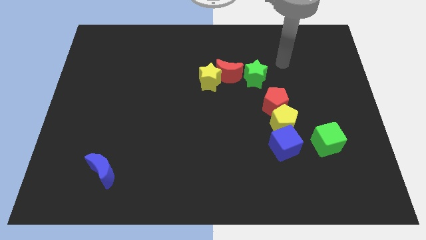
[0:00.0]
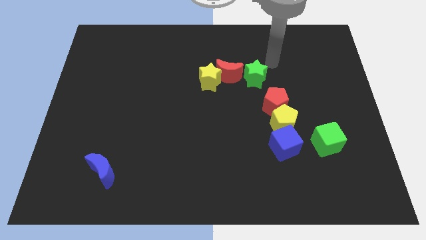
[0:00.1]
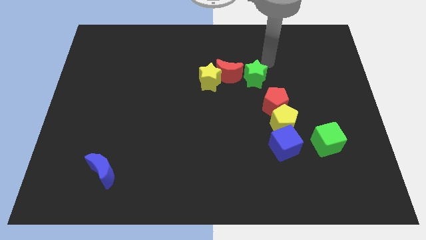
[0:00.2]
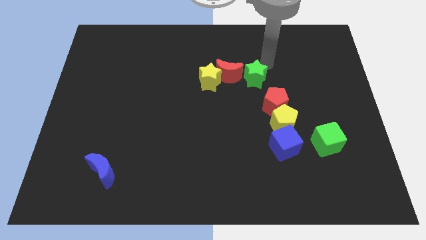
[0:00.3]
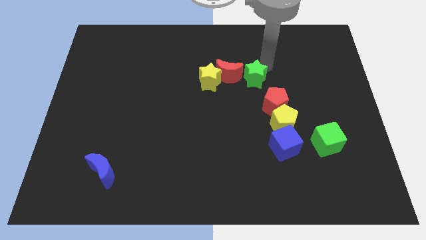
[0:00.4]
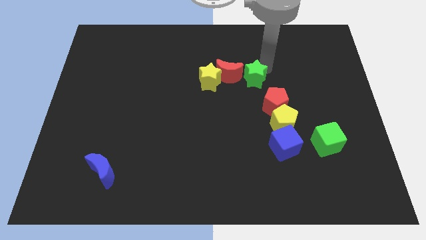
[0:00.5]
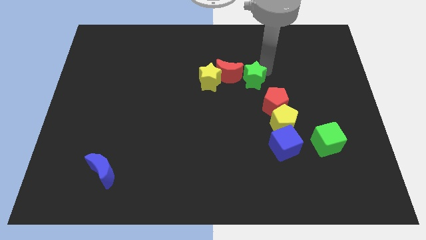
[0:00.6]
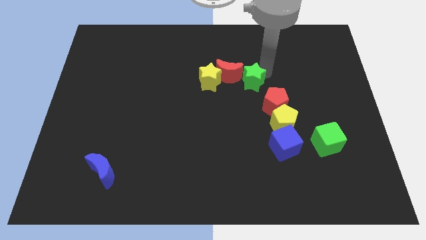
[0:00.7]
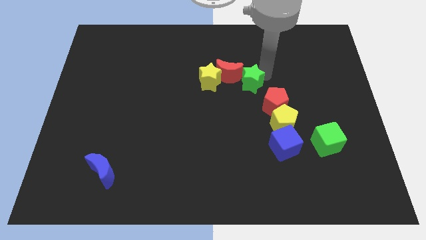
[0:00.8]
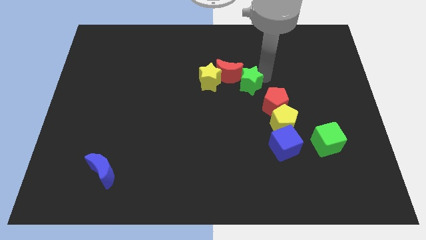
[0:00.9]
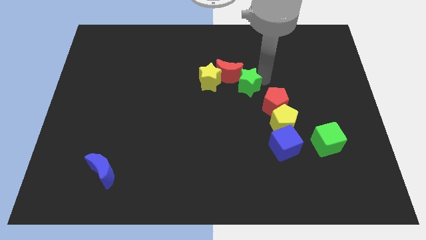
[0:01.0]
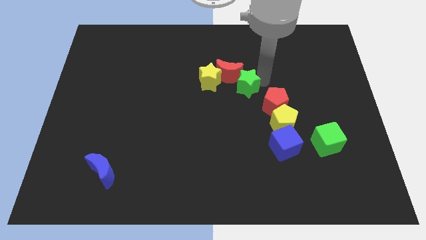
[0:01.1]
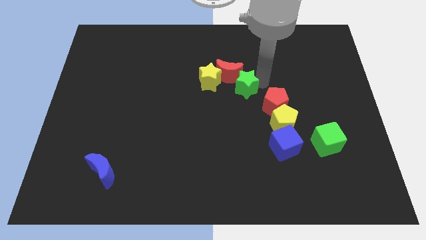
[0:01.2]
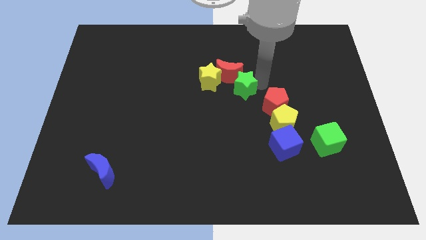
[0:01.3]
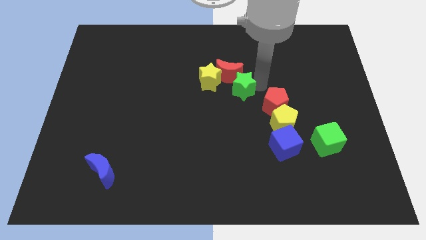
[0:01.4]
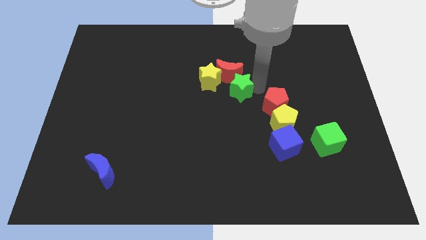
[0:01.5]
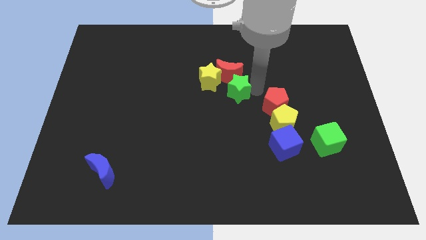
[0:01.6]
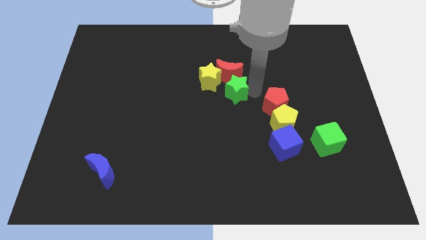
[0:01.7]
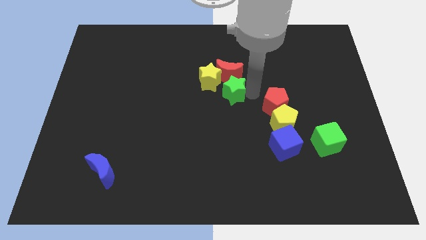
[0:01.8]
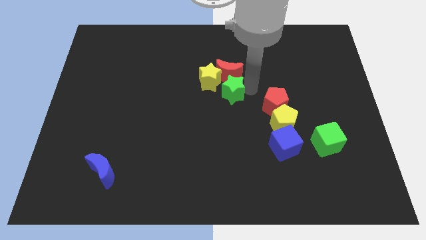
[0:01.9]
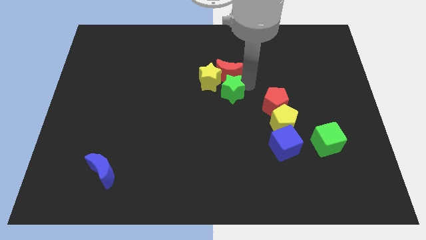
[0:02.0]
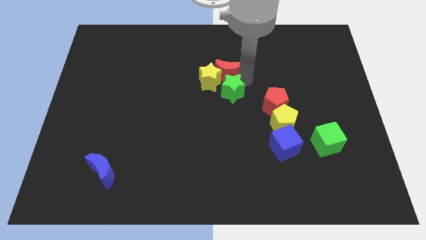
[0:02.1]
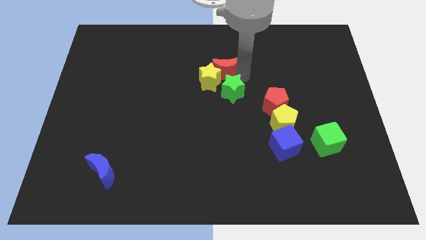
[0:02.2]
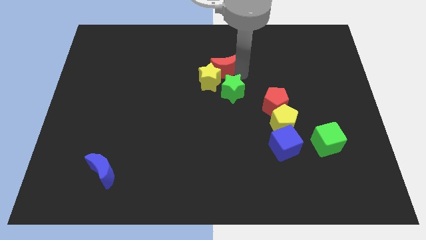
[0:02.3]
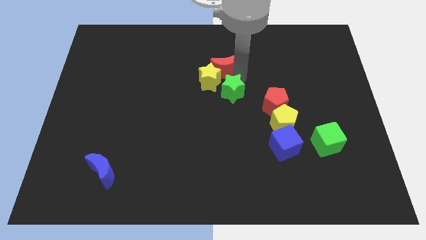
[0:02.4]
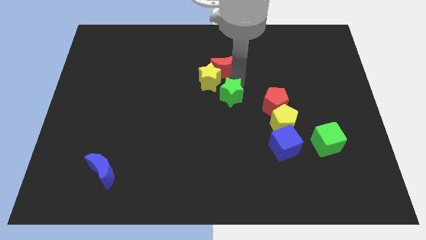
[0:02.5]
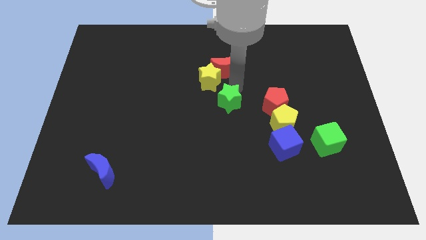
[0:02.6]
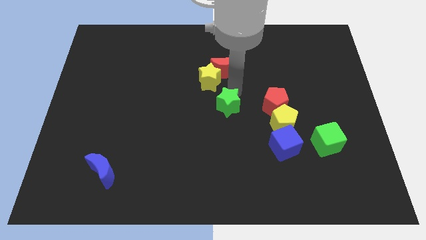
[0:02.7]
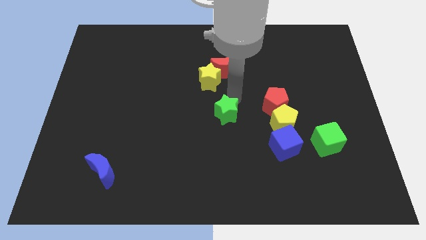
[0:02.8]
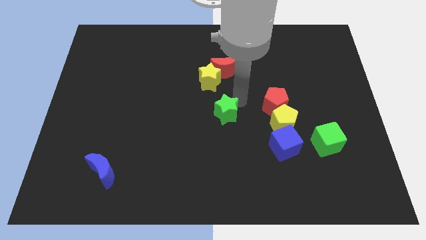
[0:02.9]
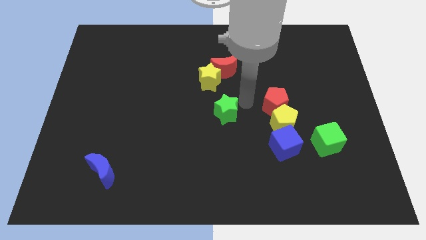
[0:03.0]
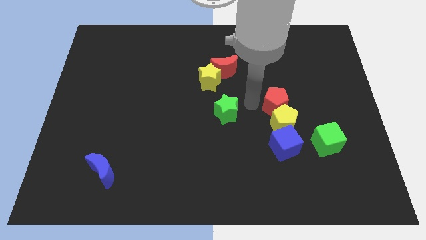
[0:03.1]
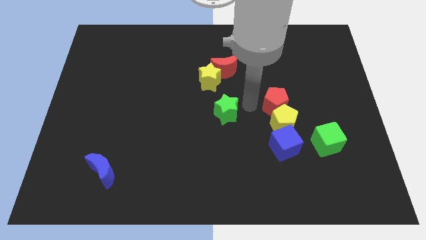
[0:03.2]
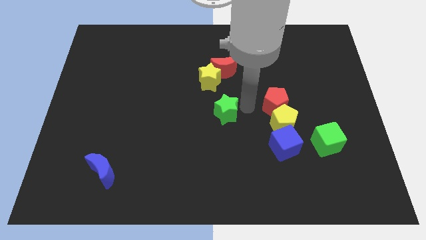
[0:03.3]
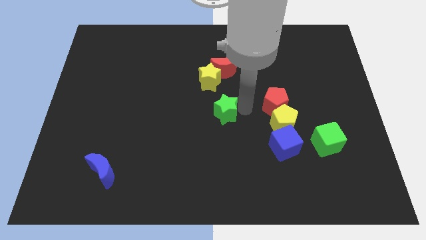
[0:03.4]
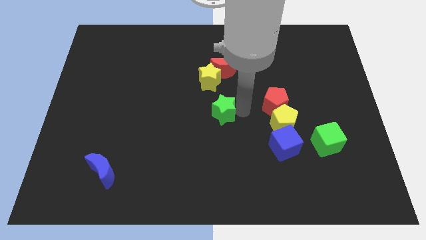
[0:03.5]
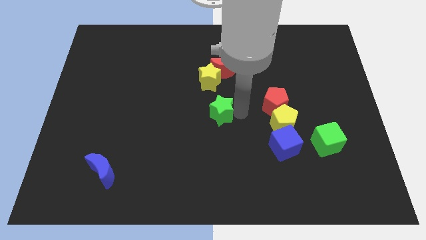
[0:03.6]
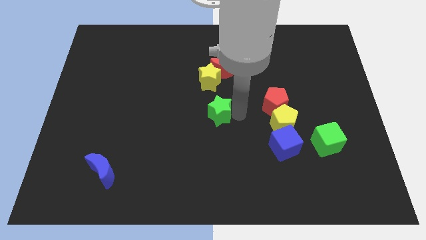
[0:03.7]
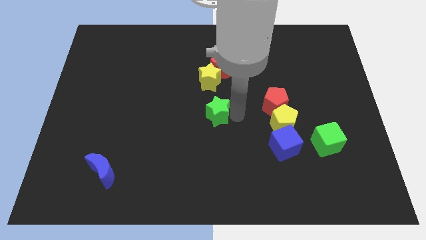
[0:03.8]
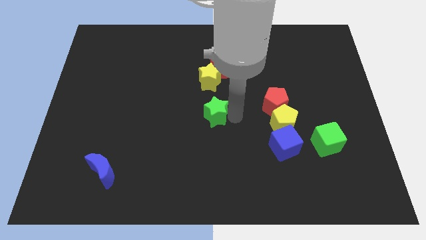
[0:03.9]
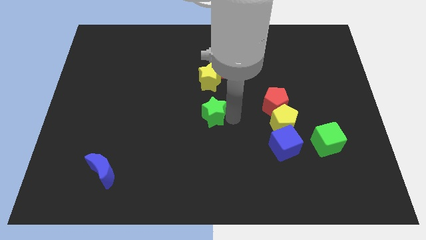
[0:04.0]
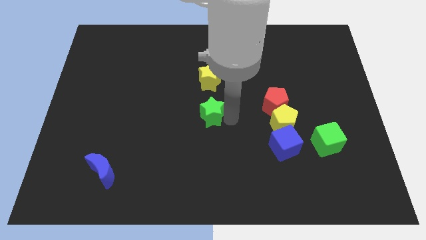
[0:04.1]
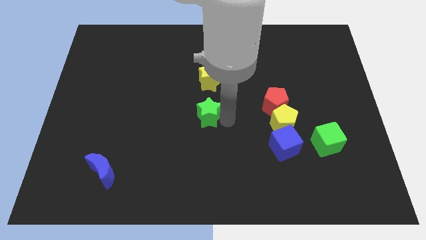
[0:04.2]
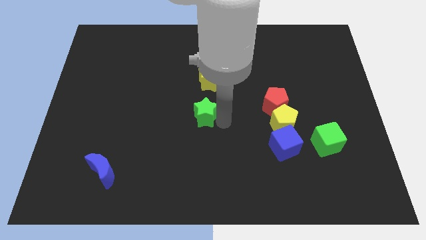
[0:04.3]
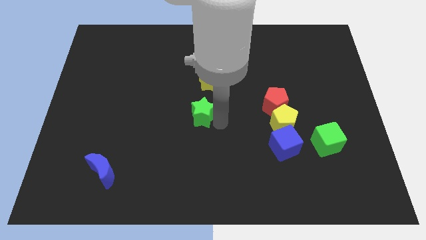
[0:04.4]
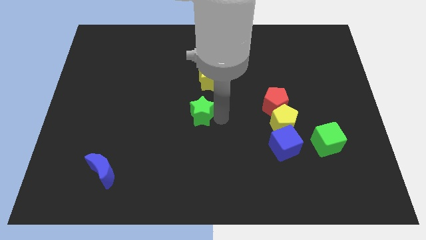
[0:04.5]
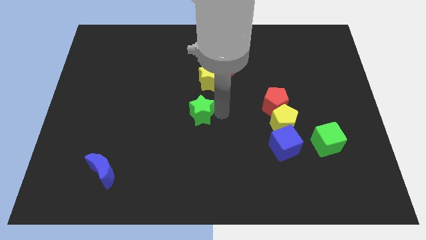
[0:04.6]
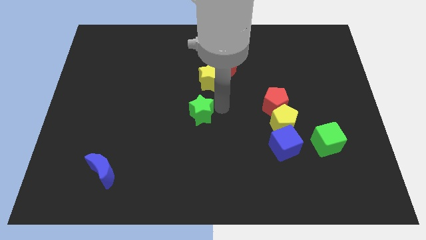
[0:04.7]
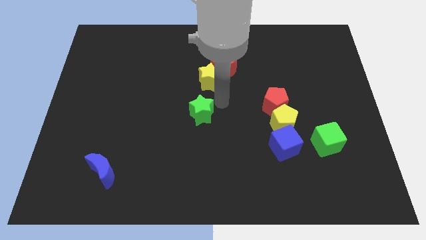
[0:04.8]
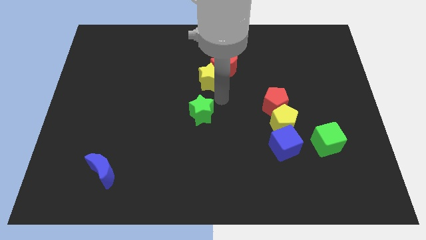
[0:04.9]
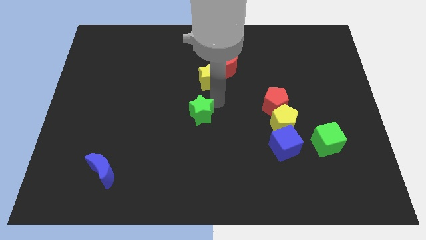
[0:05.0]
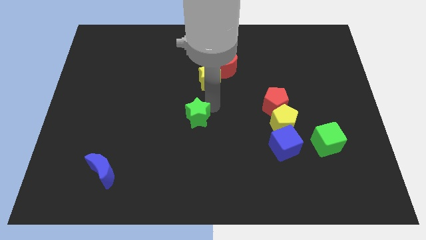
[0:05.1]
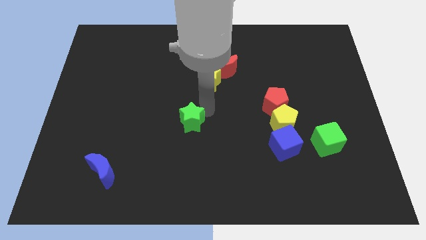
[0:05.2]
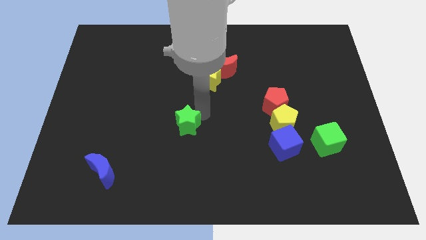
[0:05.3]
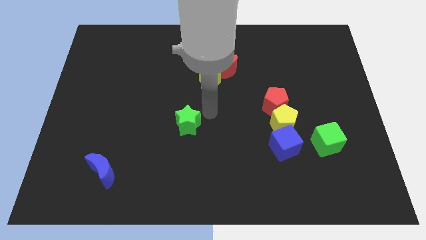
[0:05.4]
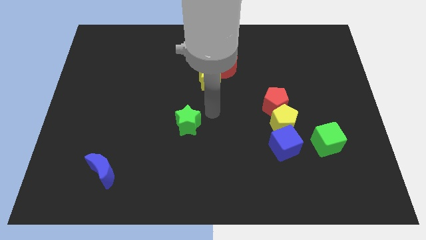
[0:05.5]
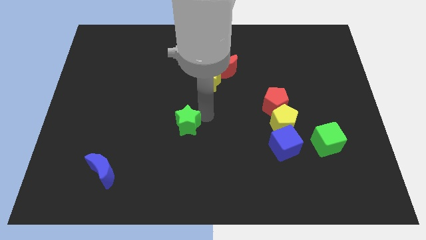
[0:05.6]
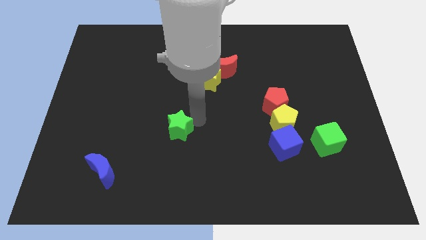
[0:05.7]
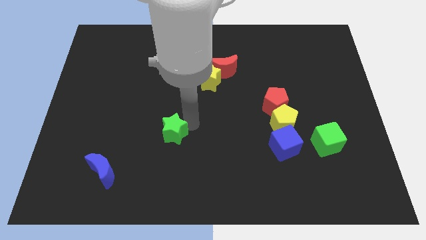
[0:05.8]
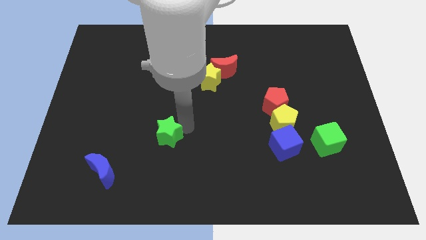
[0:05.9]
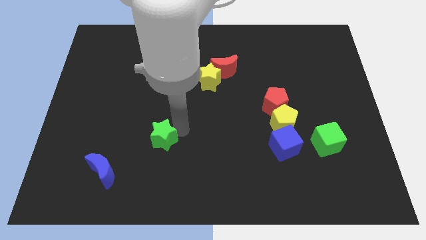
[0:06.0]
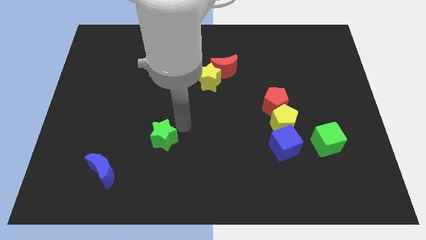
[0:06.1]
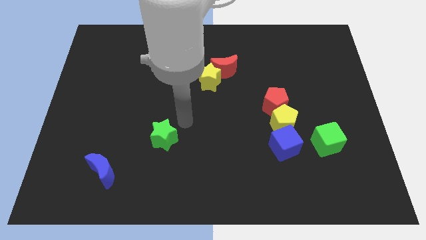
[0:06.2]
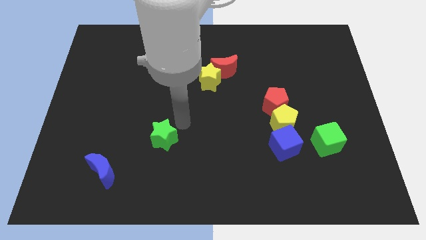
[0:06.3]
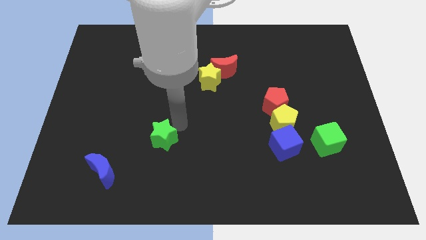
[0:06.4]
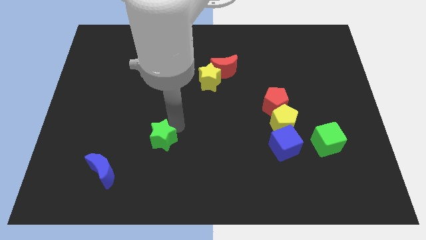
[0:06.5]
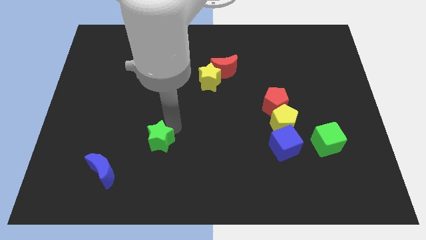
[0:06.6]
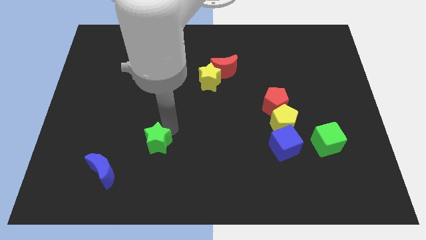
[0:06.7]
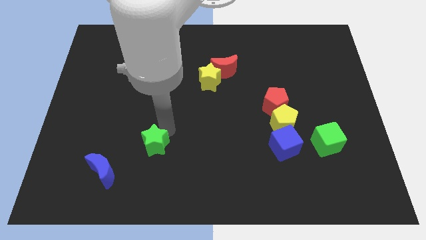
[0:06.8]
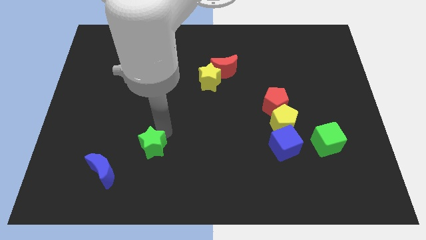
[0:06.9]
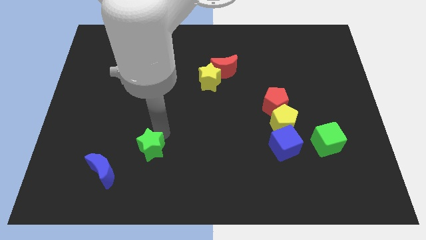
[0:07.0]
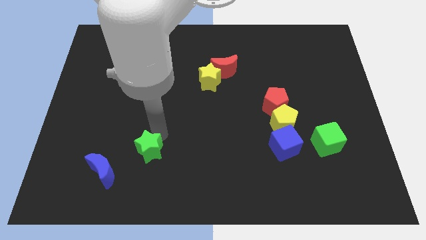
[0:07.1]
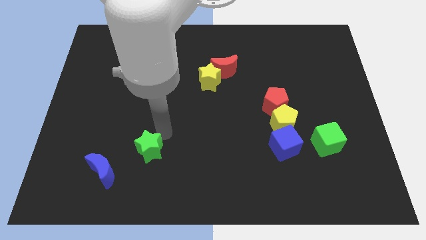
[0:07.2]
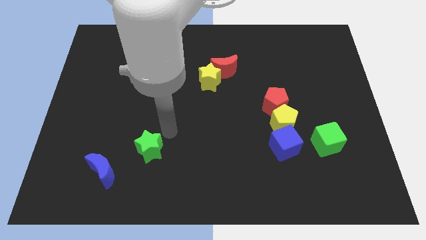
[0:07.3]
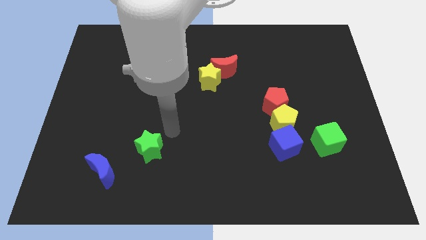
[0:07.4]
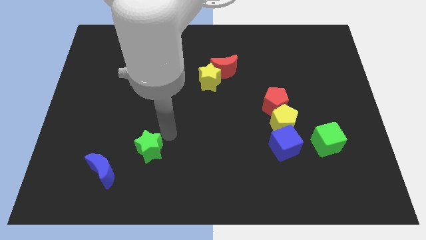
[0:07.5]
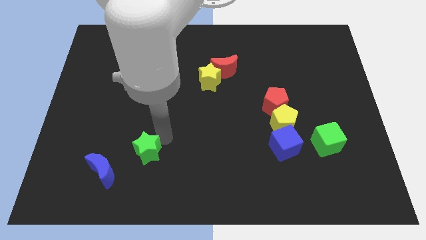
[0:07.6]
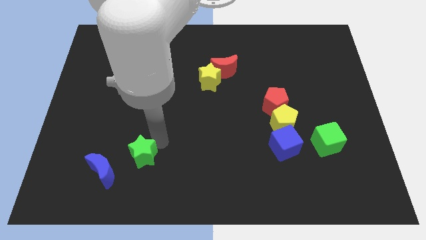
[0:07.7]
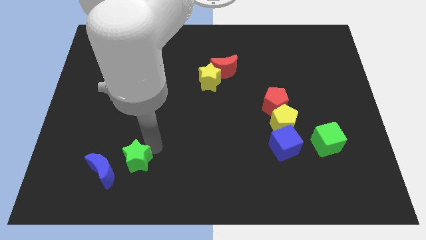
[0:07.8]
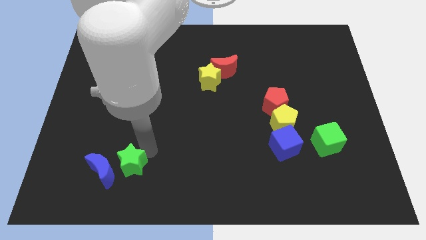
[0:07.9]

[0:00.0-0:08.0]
slide the green star to the blue moon
